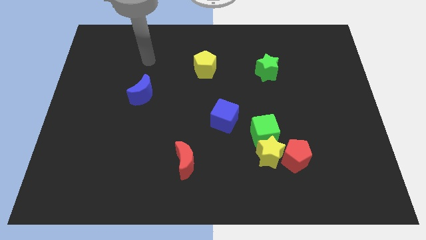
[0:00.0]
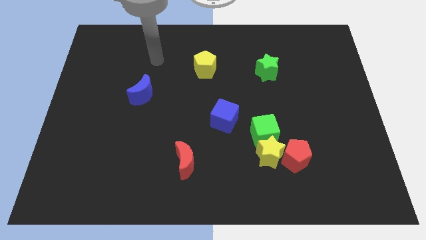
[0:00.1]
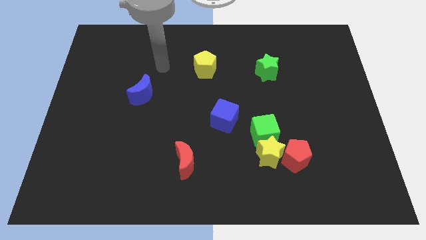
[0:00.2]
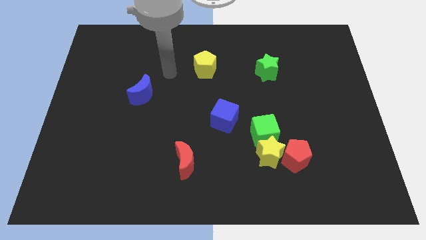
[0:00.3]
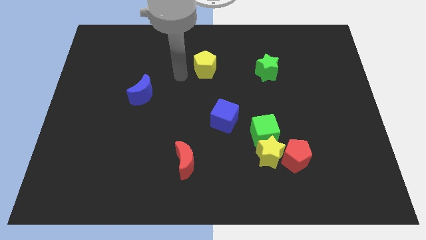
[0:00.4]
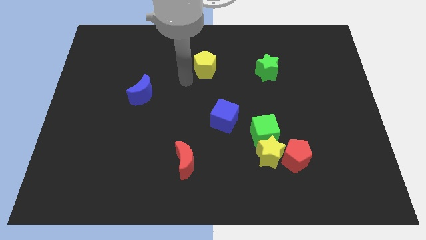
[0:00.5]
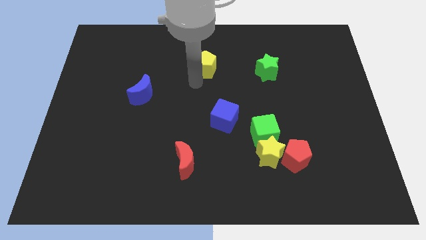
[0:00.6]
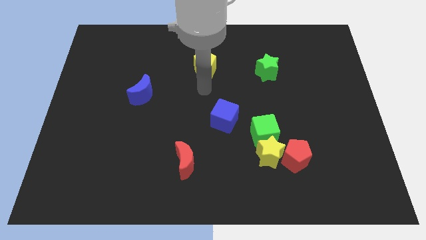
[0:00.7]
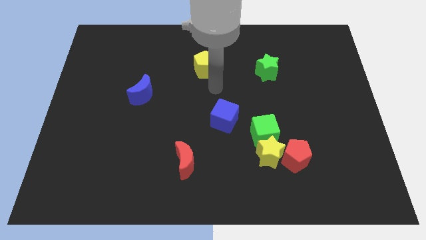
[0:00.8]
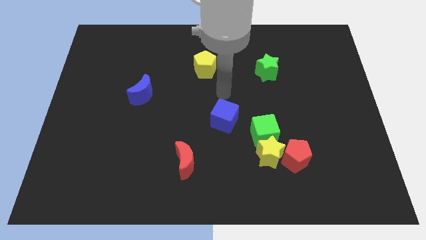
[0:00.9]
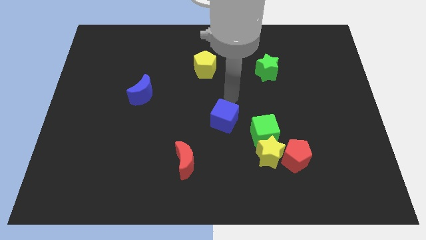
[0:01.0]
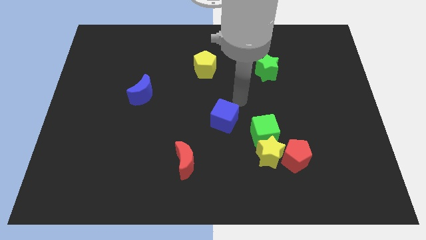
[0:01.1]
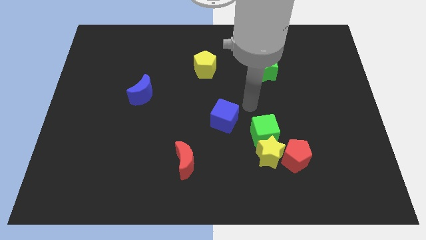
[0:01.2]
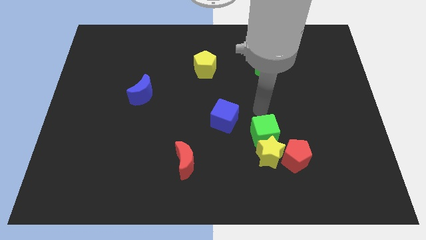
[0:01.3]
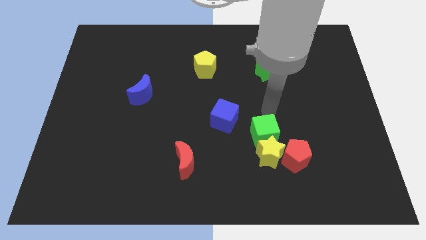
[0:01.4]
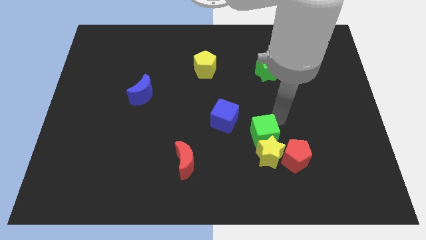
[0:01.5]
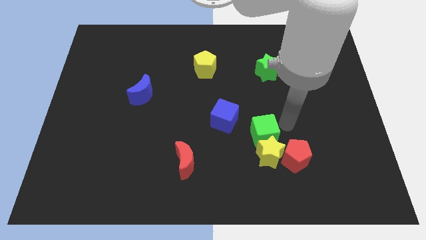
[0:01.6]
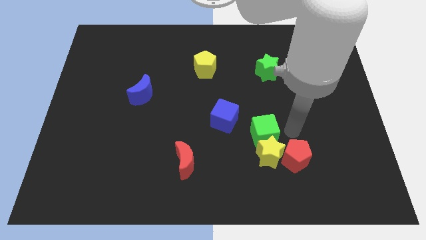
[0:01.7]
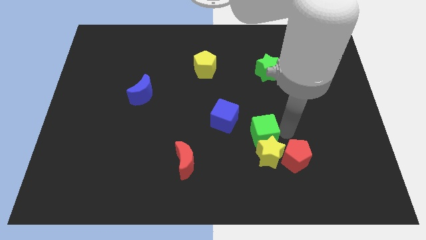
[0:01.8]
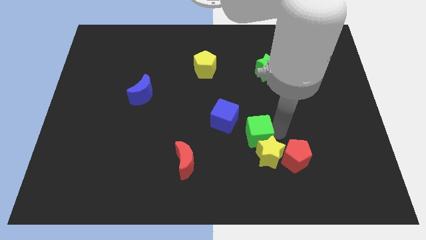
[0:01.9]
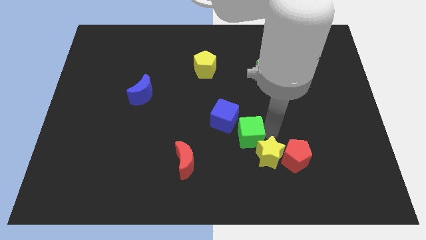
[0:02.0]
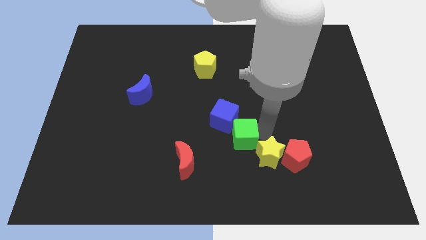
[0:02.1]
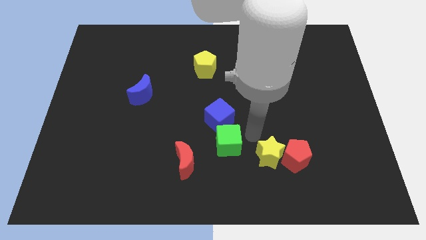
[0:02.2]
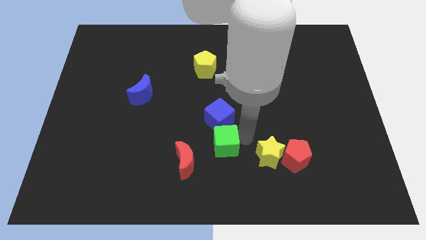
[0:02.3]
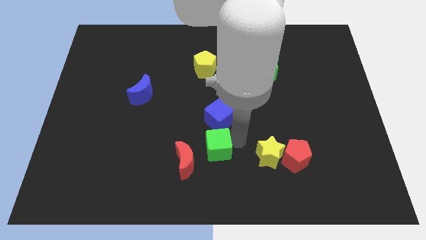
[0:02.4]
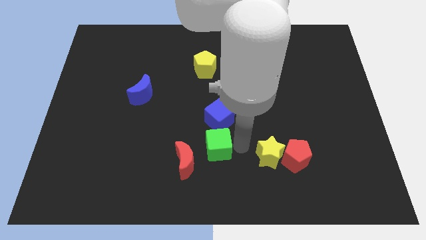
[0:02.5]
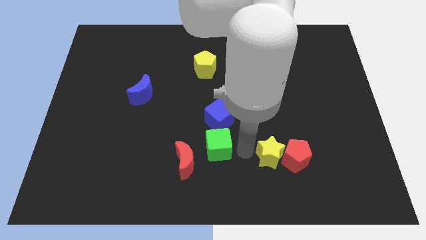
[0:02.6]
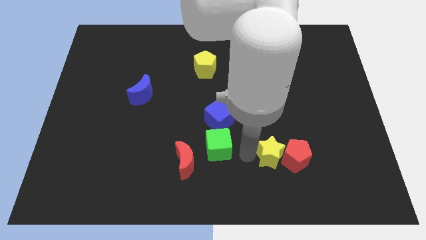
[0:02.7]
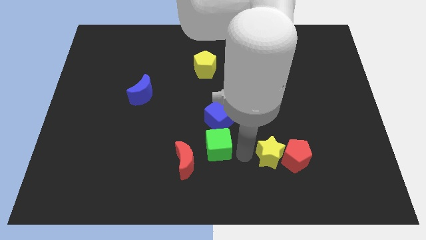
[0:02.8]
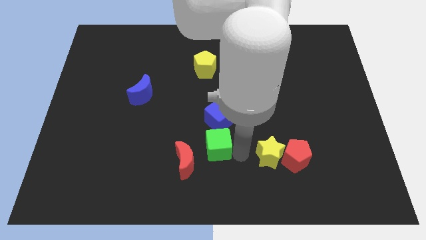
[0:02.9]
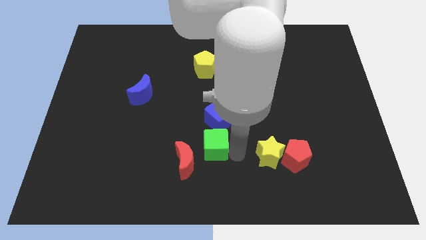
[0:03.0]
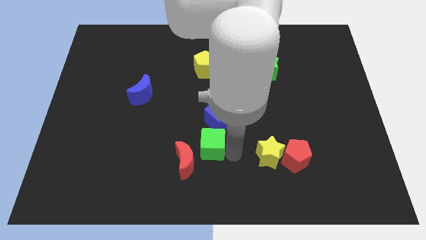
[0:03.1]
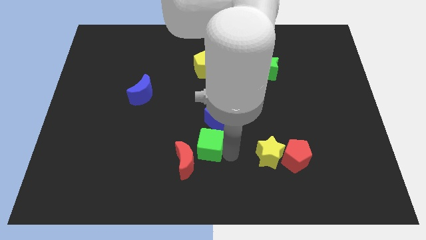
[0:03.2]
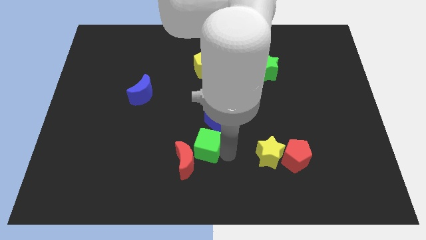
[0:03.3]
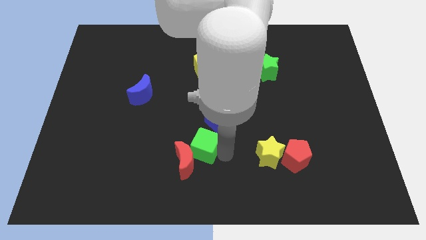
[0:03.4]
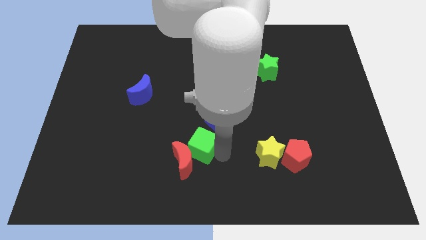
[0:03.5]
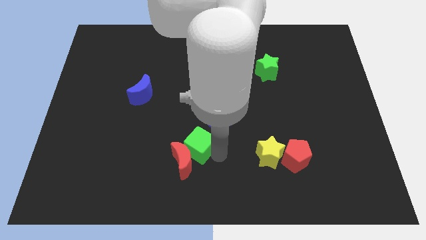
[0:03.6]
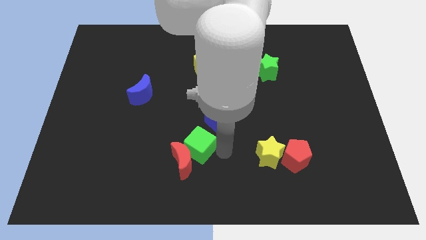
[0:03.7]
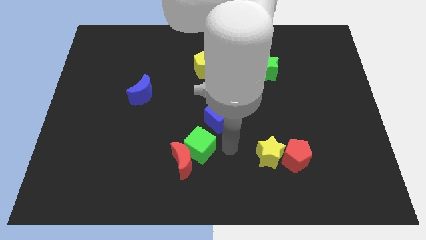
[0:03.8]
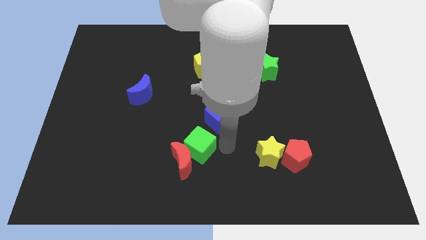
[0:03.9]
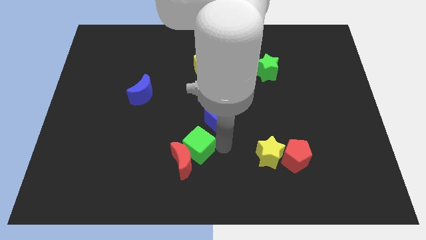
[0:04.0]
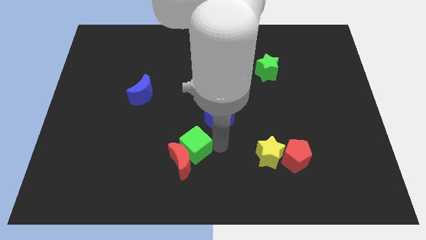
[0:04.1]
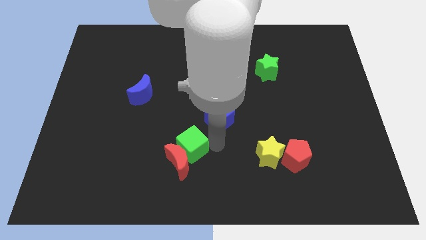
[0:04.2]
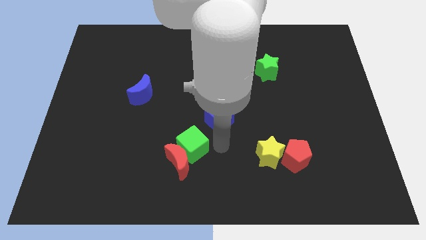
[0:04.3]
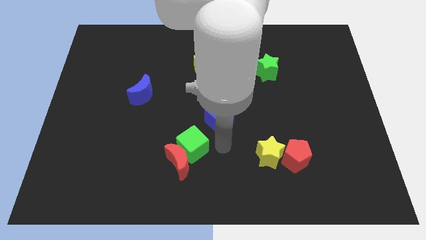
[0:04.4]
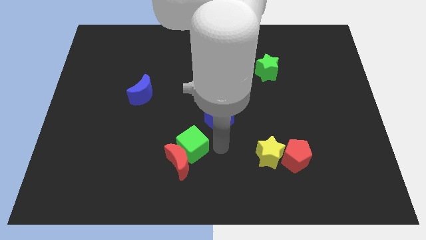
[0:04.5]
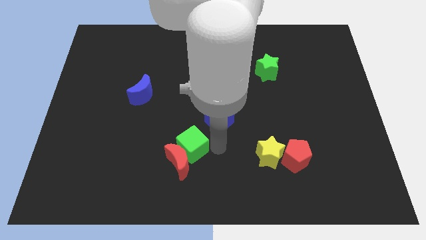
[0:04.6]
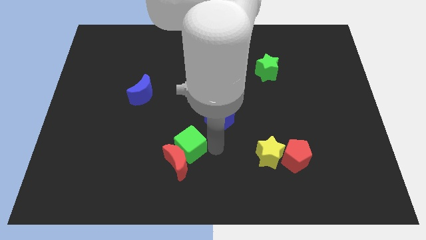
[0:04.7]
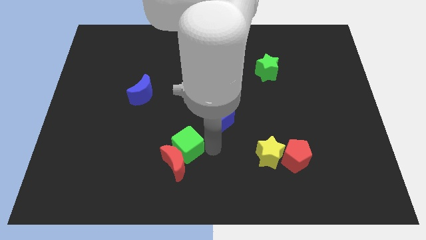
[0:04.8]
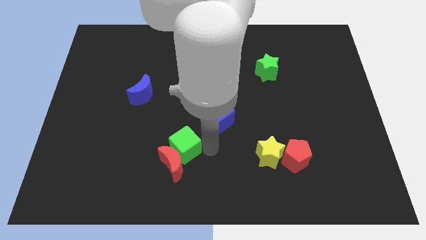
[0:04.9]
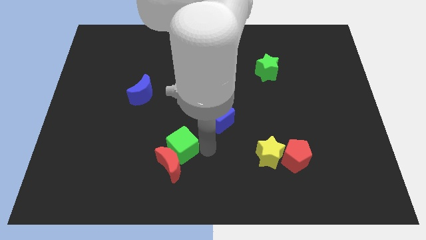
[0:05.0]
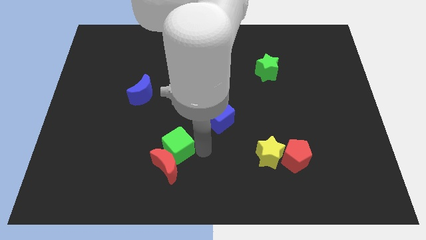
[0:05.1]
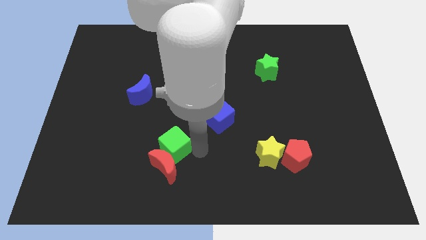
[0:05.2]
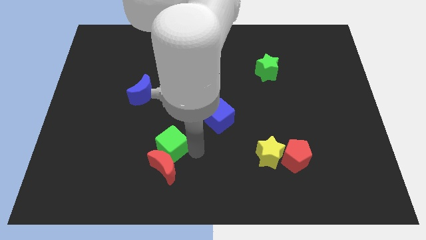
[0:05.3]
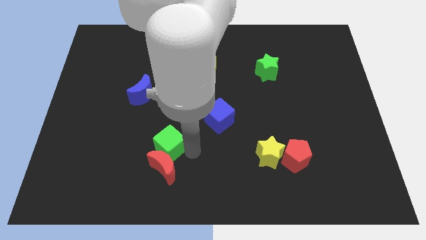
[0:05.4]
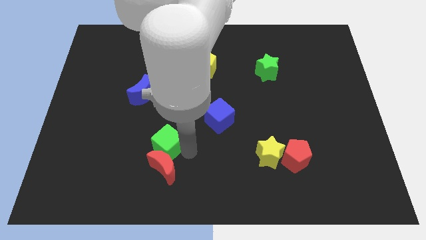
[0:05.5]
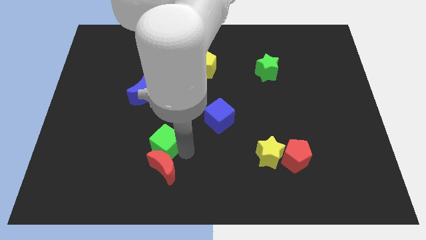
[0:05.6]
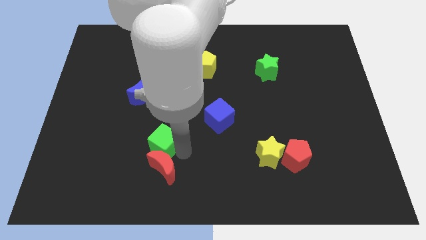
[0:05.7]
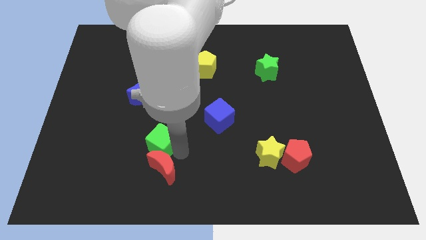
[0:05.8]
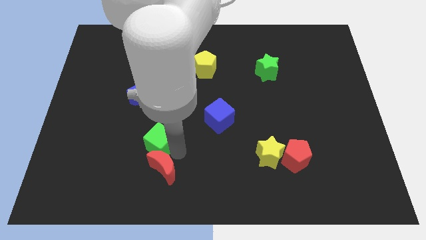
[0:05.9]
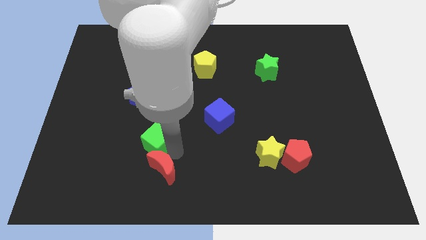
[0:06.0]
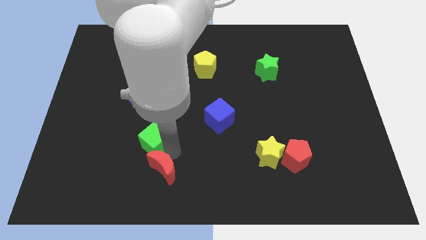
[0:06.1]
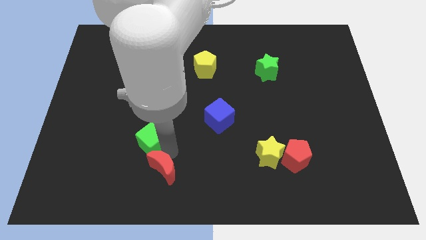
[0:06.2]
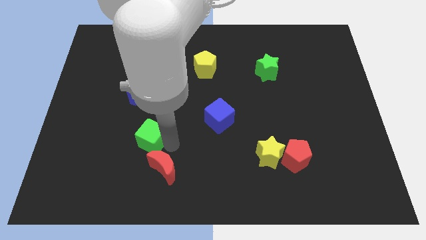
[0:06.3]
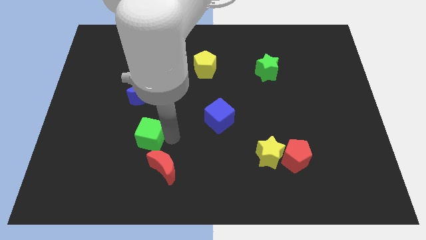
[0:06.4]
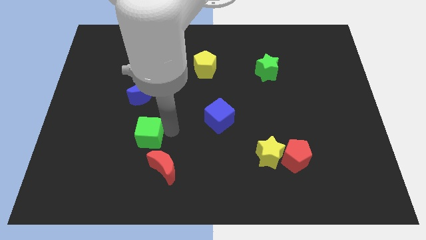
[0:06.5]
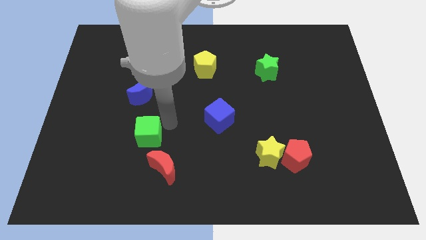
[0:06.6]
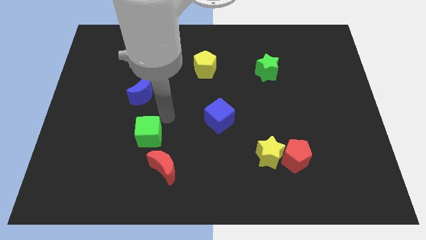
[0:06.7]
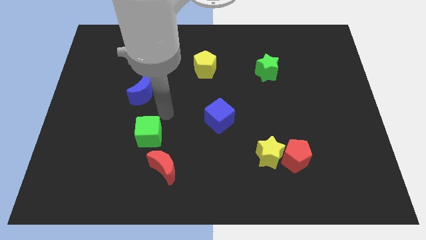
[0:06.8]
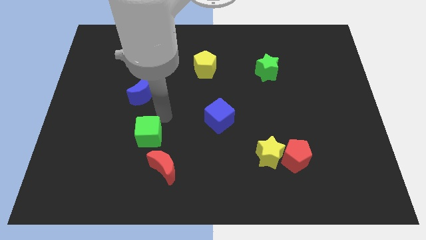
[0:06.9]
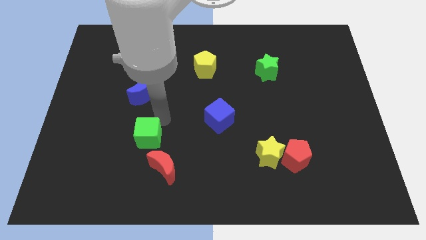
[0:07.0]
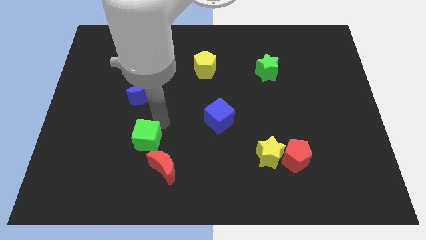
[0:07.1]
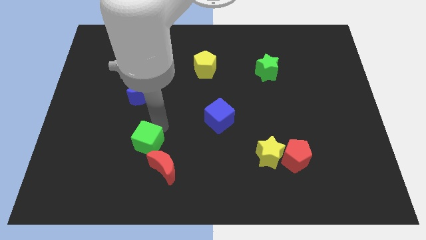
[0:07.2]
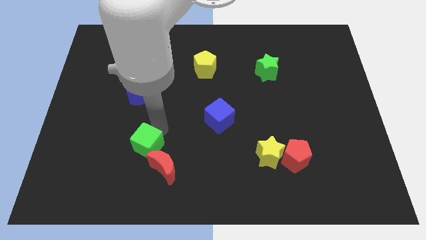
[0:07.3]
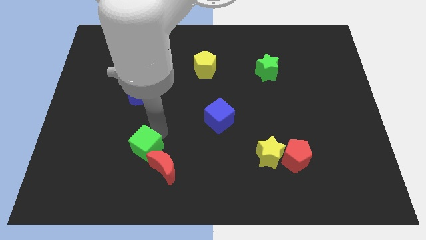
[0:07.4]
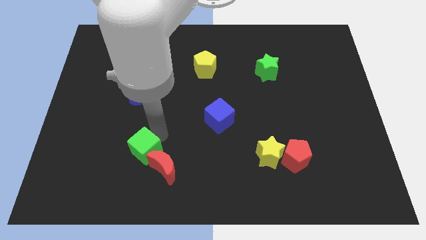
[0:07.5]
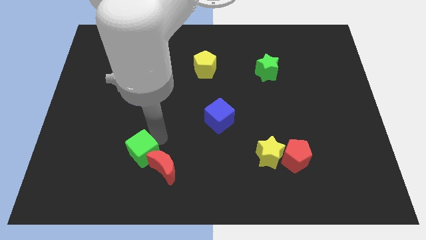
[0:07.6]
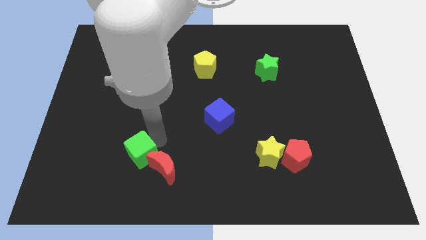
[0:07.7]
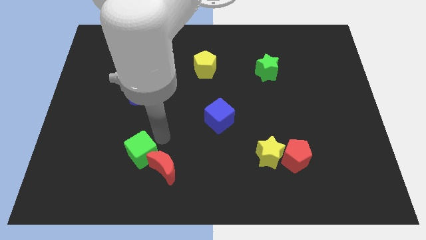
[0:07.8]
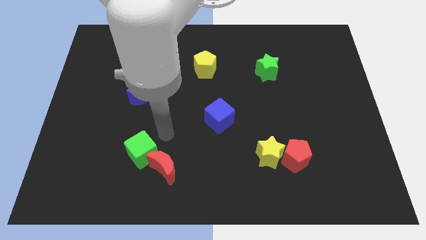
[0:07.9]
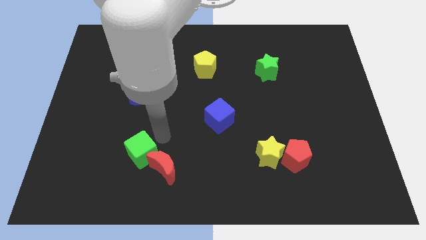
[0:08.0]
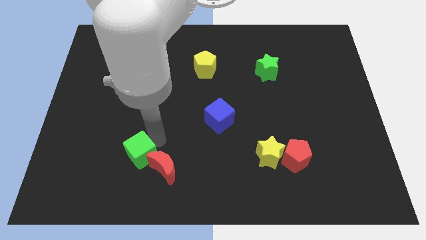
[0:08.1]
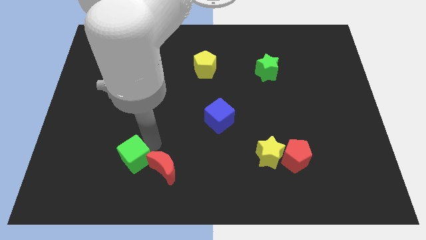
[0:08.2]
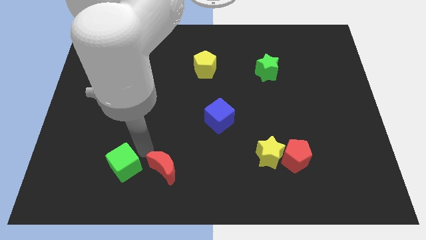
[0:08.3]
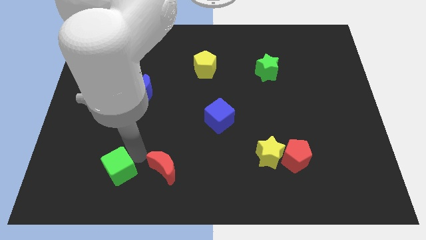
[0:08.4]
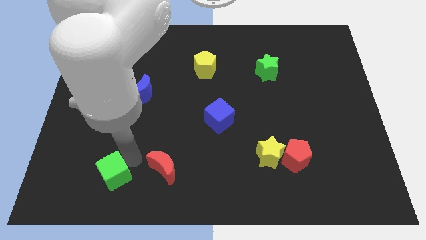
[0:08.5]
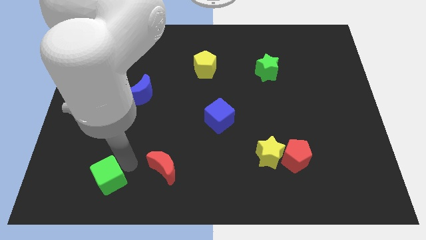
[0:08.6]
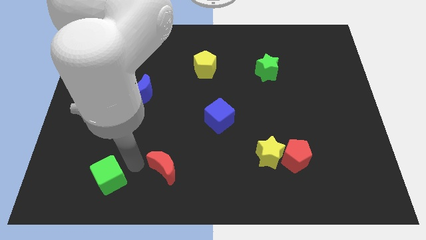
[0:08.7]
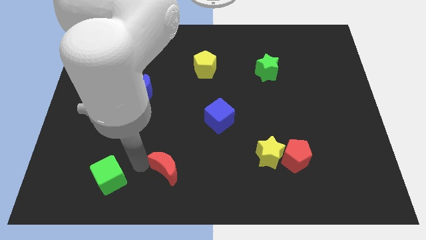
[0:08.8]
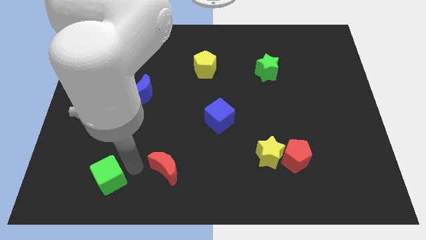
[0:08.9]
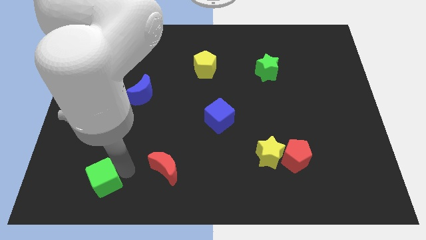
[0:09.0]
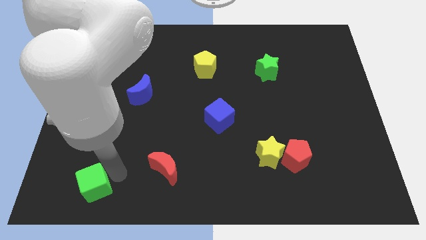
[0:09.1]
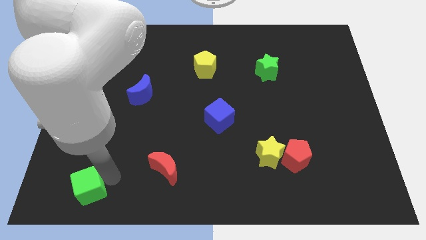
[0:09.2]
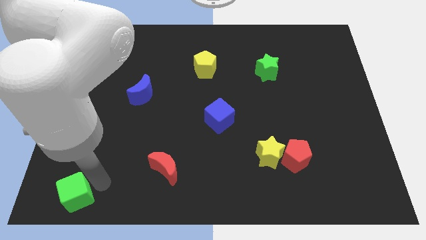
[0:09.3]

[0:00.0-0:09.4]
slide the green cube to the bottom left
